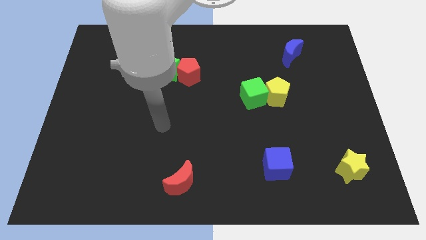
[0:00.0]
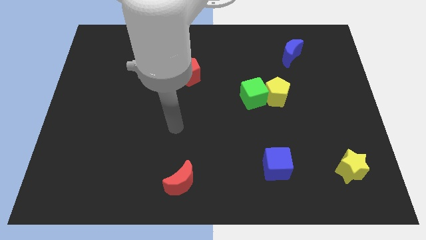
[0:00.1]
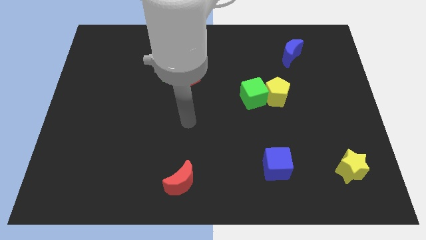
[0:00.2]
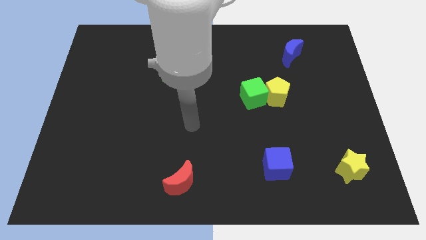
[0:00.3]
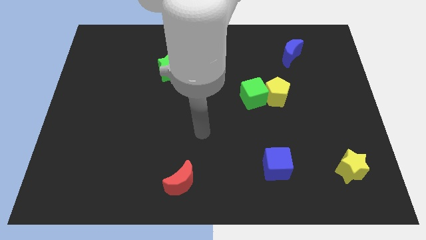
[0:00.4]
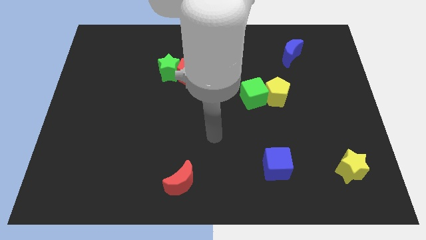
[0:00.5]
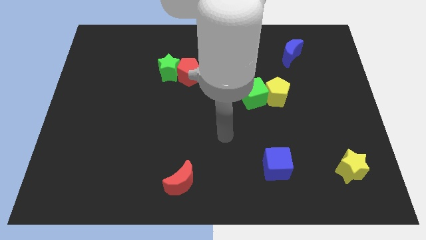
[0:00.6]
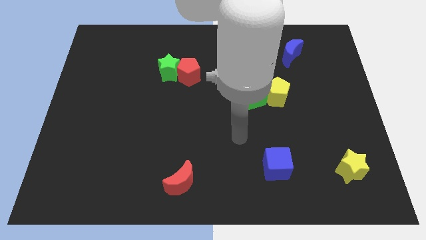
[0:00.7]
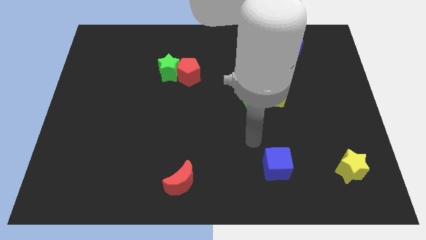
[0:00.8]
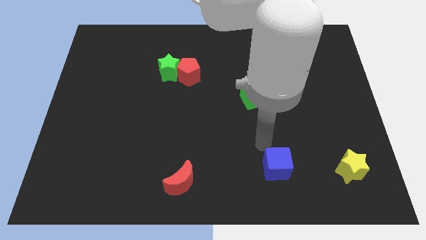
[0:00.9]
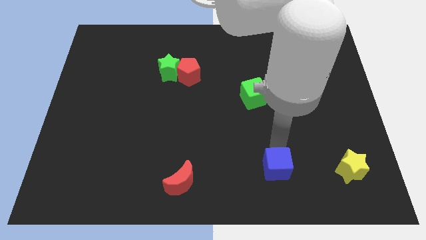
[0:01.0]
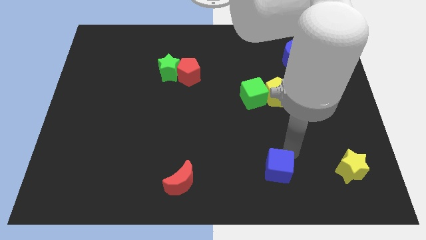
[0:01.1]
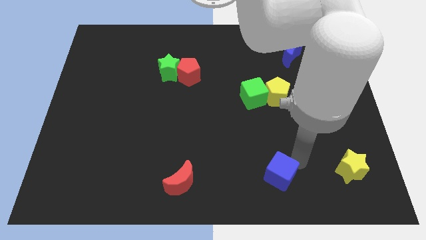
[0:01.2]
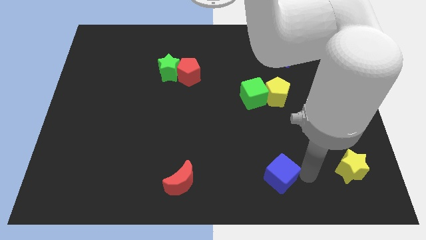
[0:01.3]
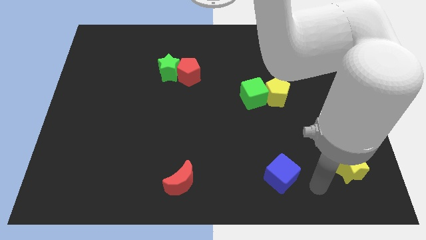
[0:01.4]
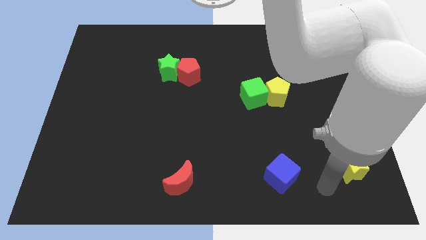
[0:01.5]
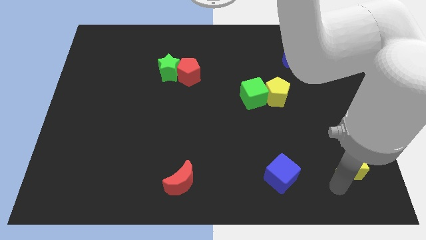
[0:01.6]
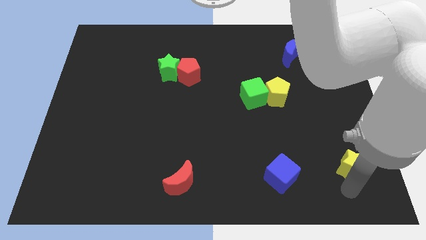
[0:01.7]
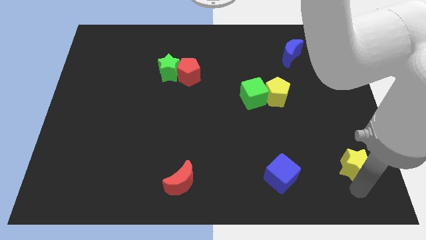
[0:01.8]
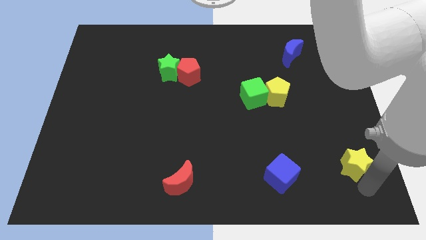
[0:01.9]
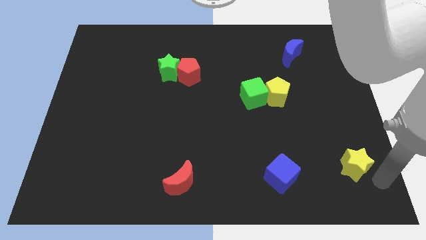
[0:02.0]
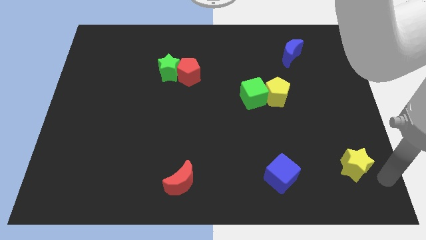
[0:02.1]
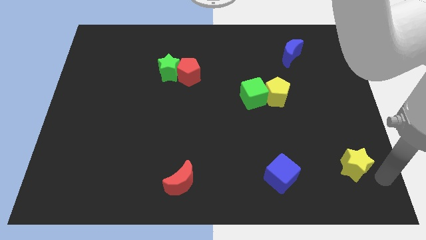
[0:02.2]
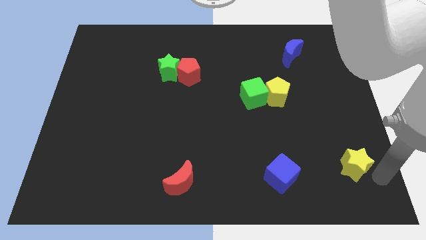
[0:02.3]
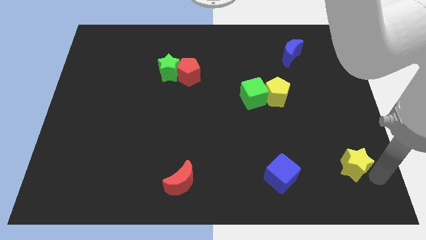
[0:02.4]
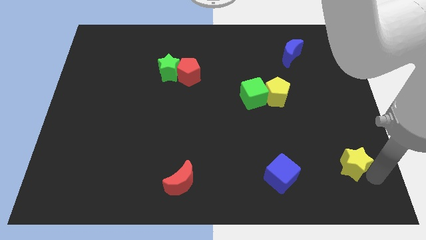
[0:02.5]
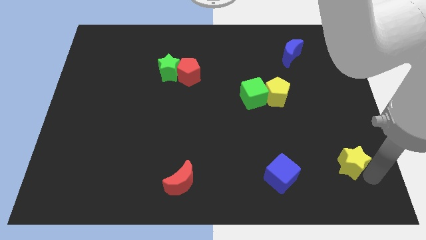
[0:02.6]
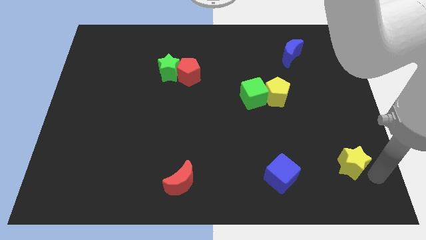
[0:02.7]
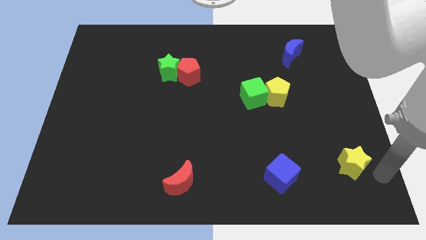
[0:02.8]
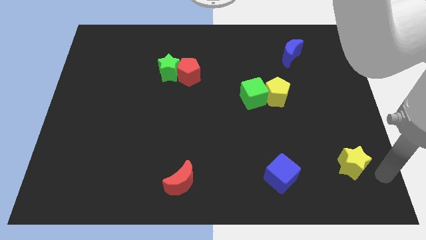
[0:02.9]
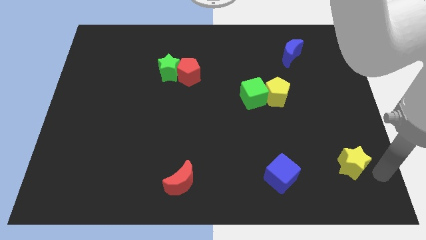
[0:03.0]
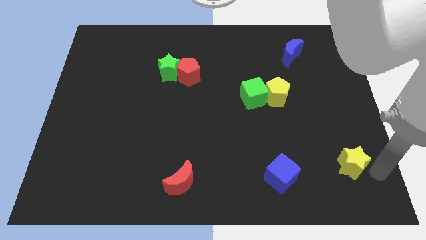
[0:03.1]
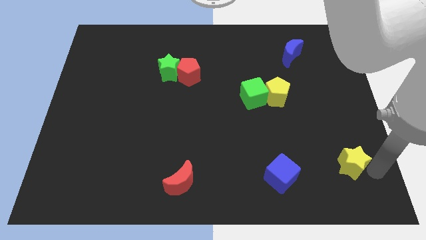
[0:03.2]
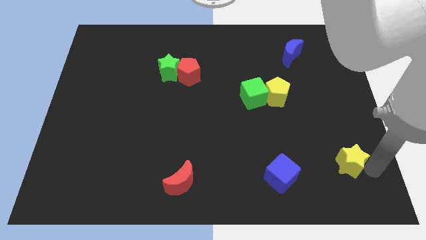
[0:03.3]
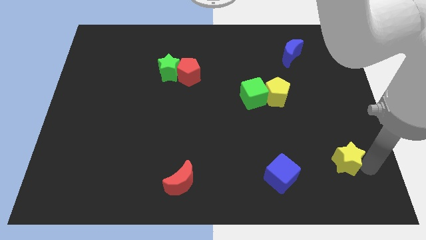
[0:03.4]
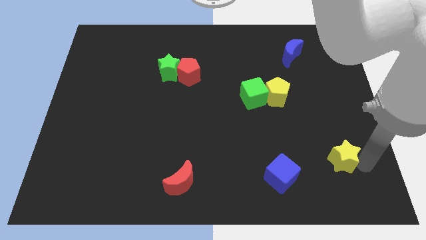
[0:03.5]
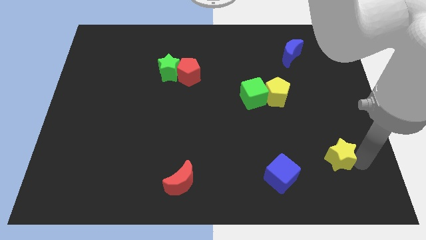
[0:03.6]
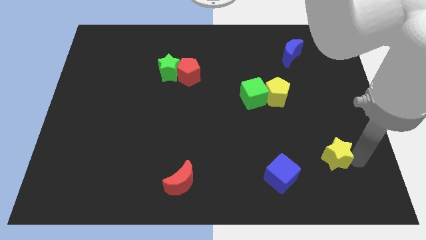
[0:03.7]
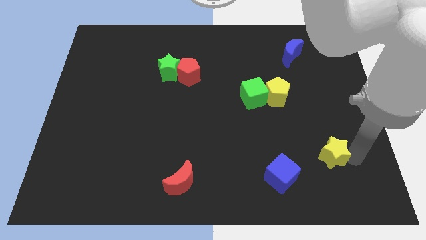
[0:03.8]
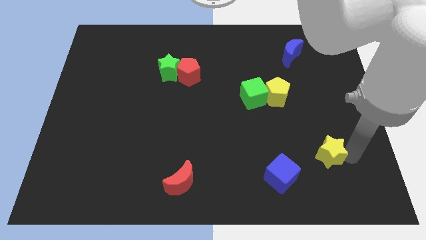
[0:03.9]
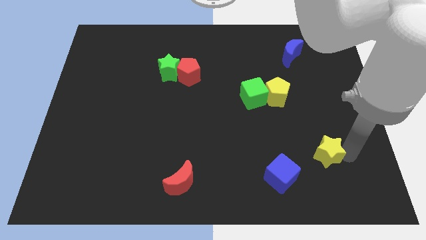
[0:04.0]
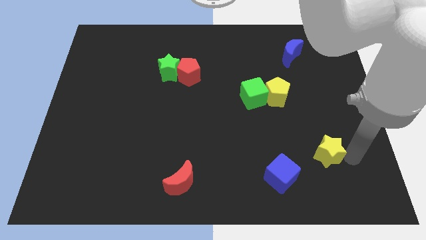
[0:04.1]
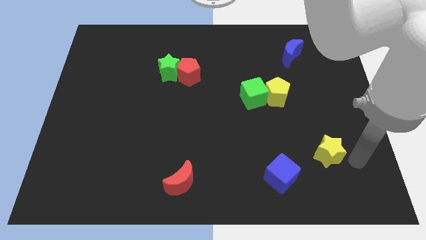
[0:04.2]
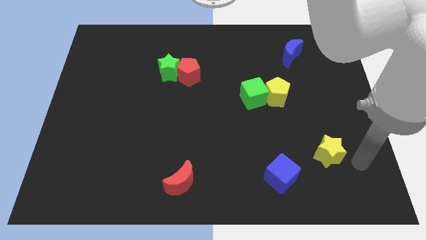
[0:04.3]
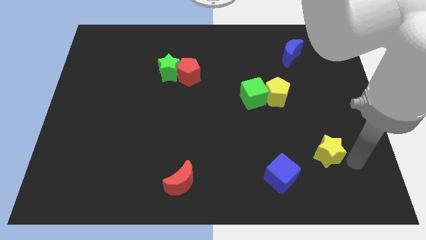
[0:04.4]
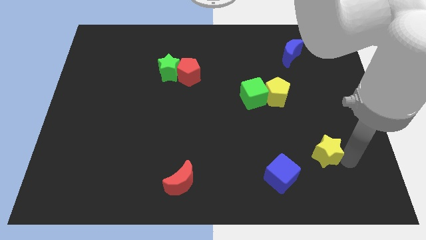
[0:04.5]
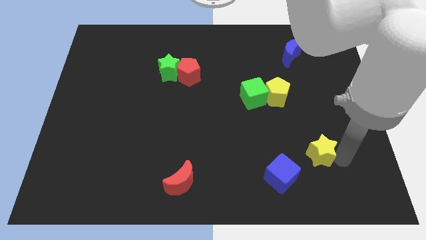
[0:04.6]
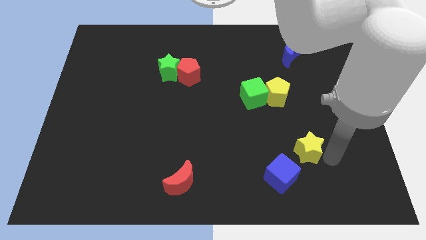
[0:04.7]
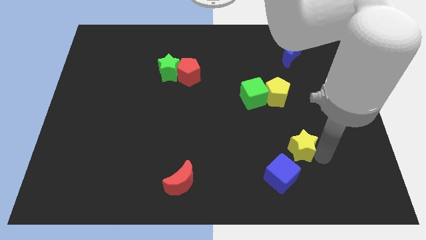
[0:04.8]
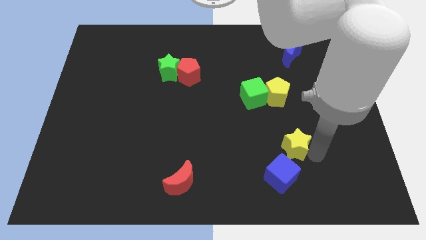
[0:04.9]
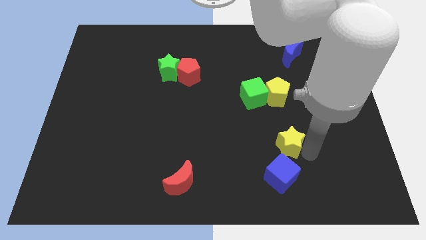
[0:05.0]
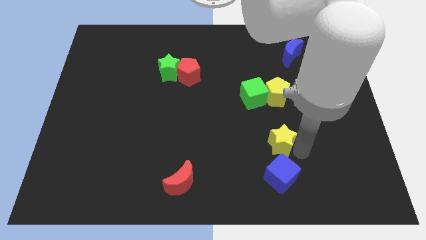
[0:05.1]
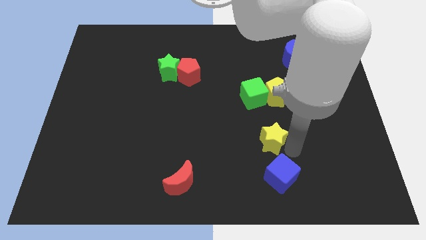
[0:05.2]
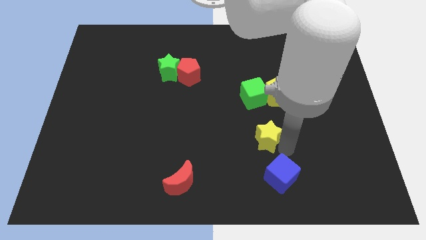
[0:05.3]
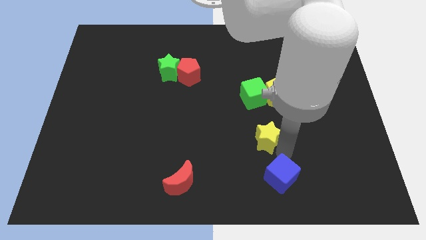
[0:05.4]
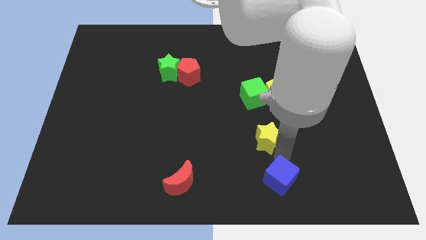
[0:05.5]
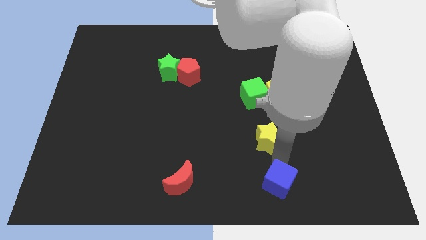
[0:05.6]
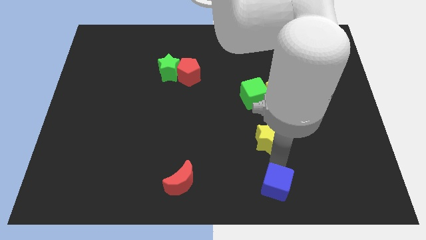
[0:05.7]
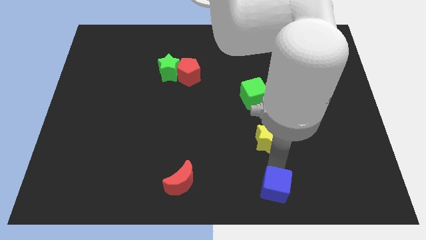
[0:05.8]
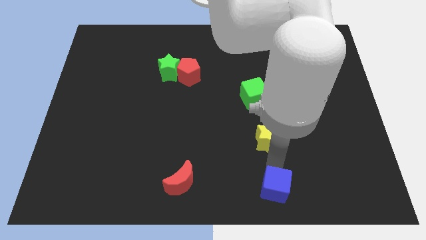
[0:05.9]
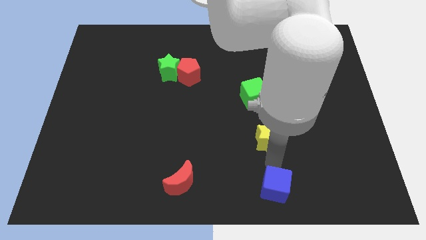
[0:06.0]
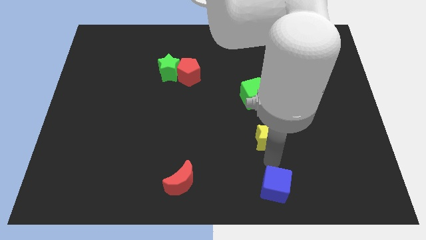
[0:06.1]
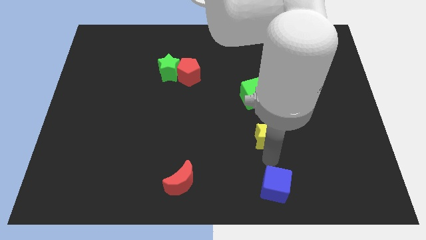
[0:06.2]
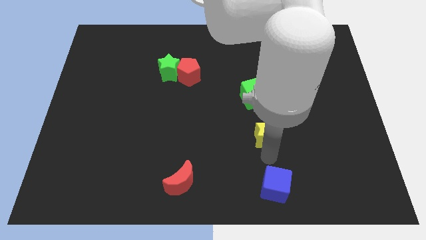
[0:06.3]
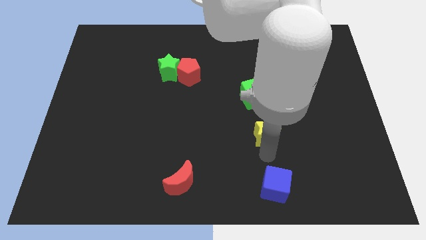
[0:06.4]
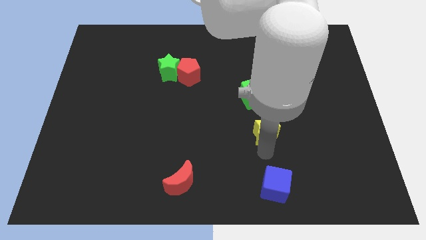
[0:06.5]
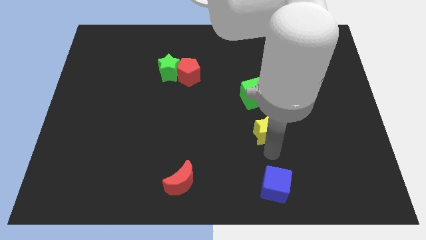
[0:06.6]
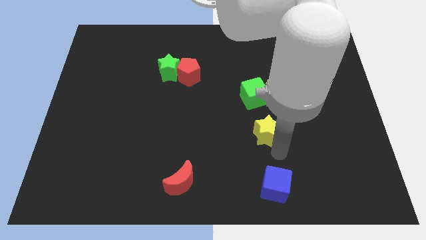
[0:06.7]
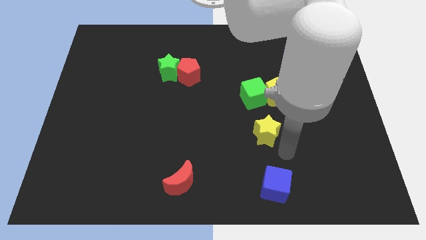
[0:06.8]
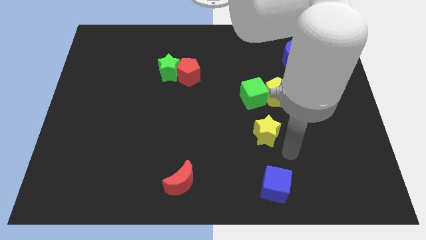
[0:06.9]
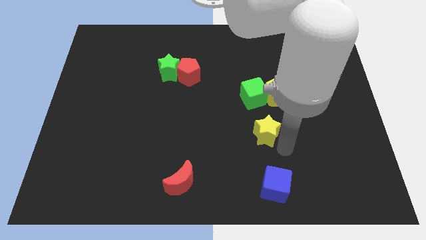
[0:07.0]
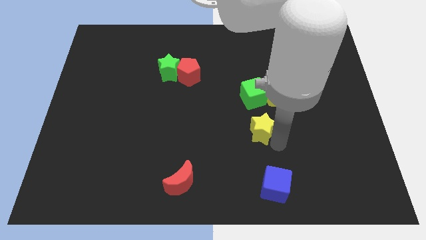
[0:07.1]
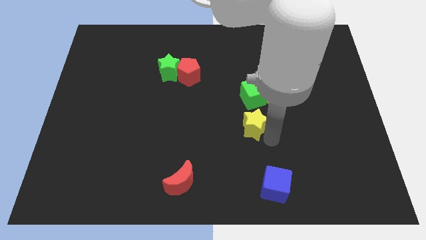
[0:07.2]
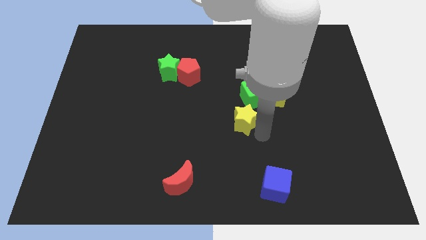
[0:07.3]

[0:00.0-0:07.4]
move the yellow star up and then to the left

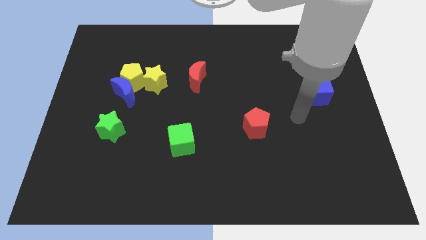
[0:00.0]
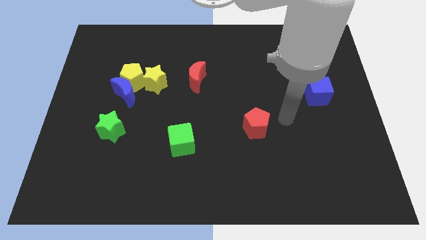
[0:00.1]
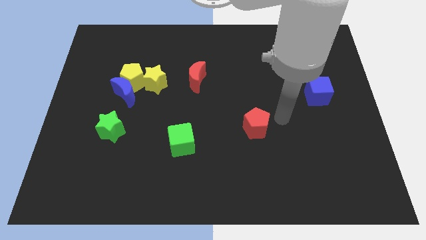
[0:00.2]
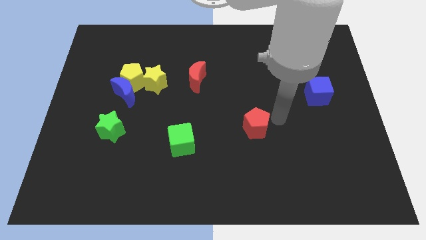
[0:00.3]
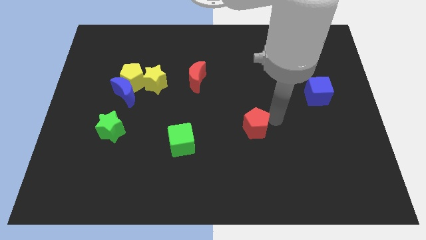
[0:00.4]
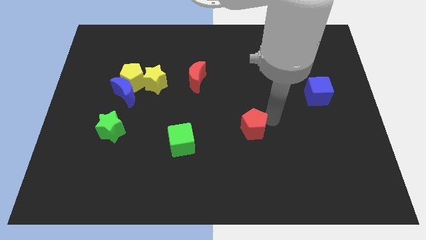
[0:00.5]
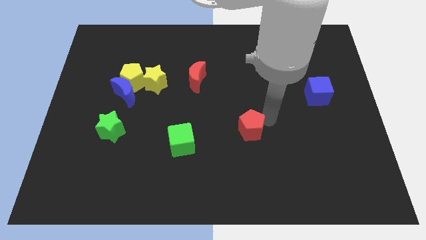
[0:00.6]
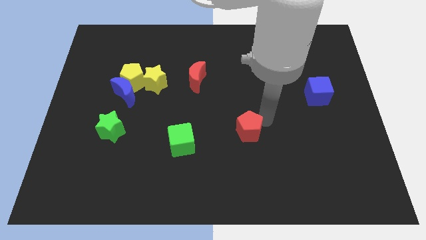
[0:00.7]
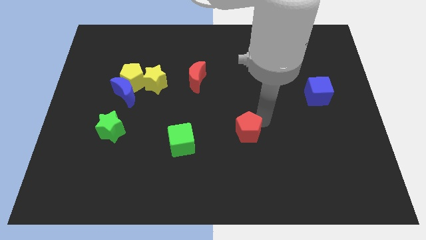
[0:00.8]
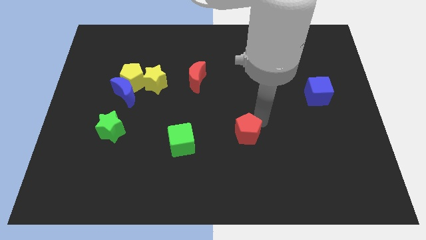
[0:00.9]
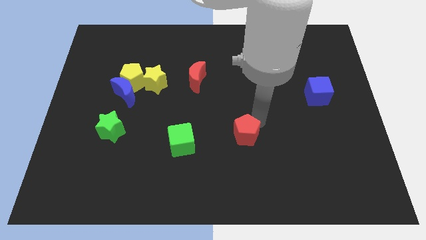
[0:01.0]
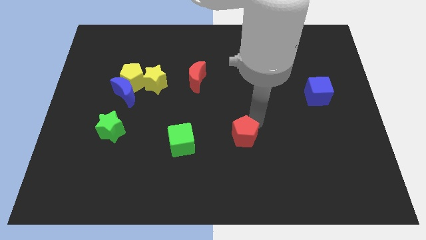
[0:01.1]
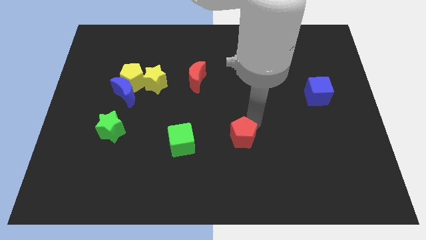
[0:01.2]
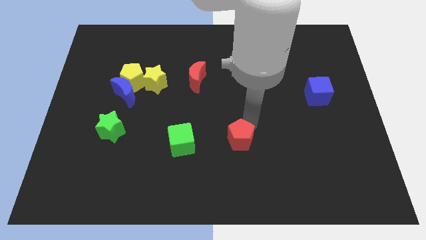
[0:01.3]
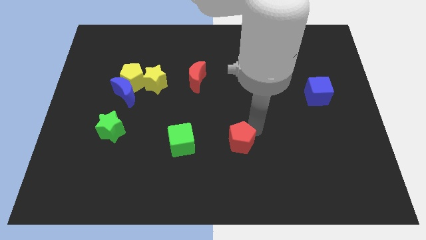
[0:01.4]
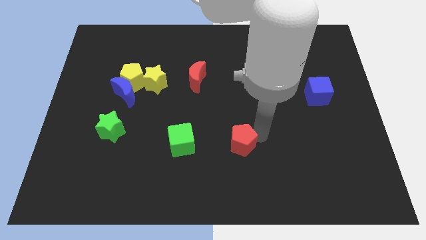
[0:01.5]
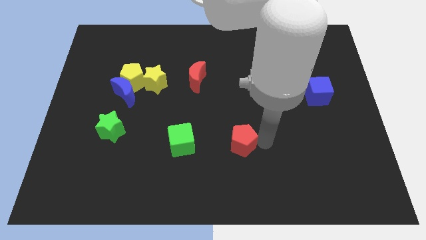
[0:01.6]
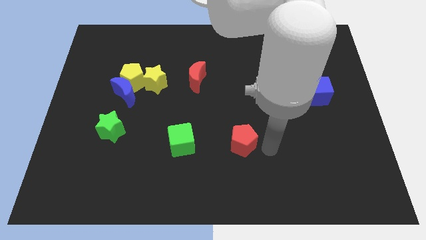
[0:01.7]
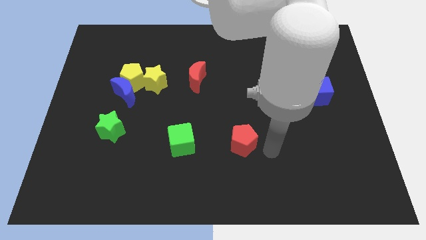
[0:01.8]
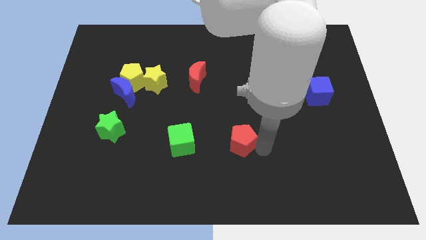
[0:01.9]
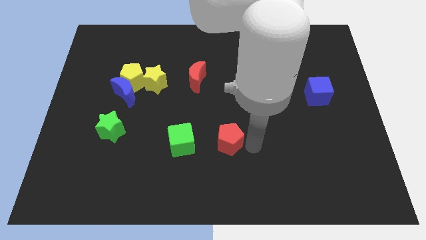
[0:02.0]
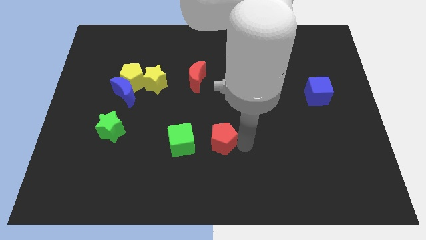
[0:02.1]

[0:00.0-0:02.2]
slightly move the red pentagon left
